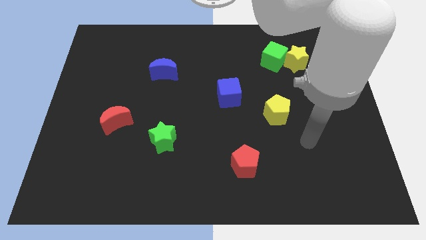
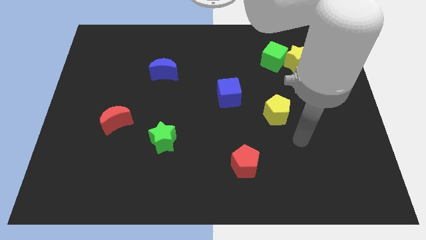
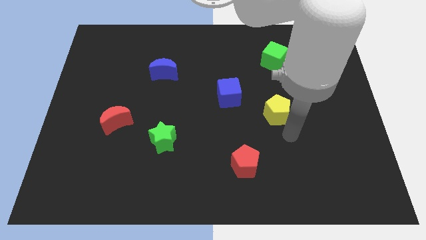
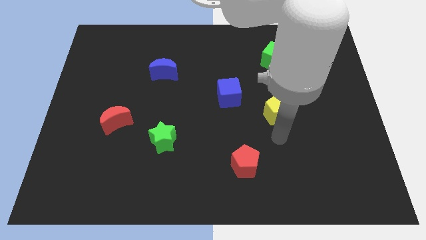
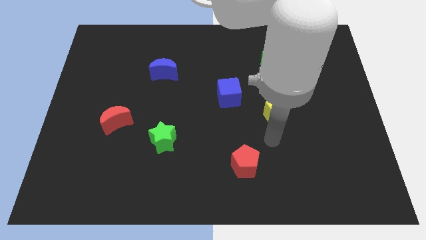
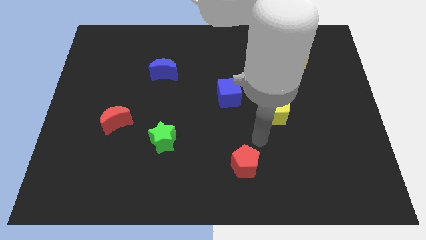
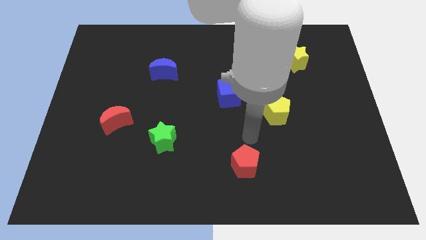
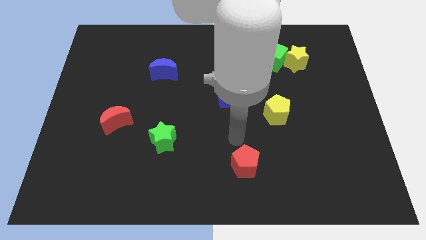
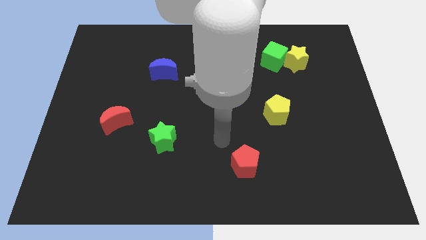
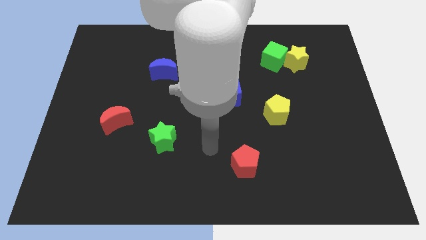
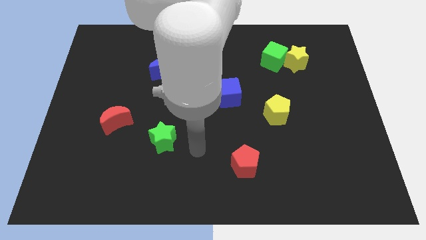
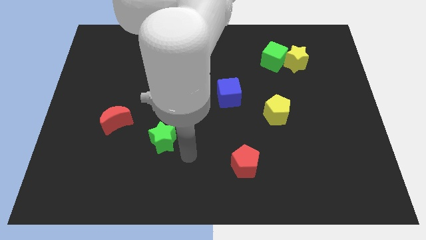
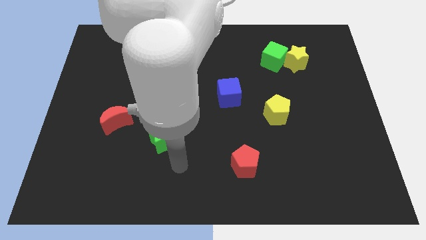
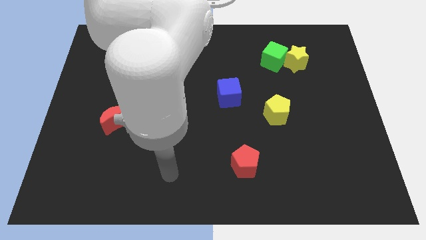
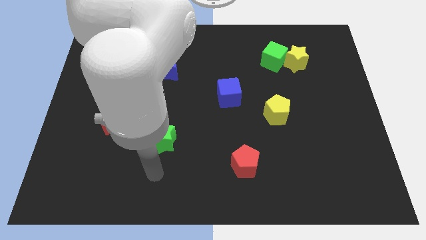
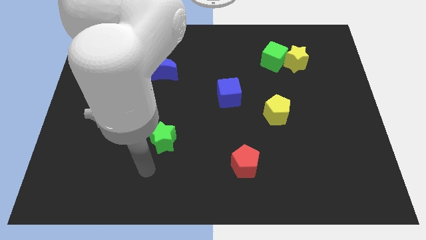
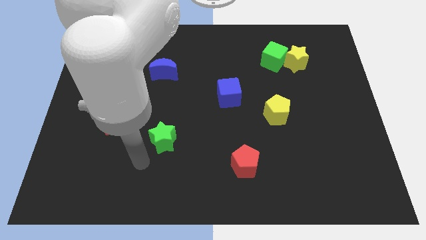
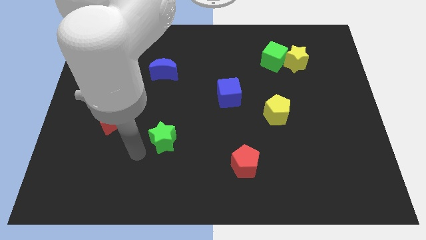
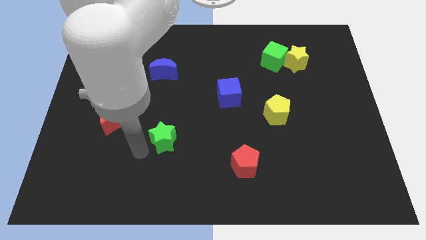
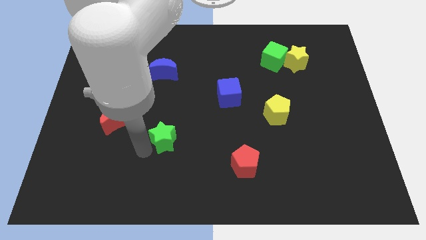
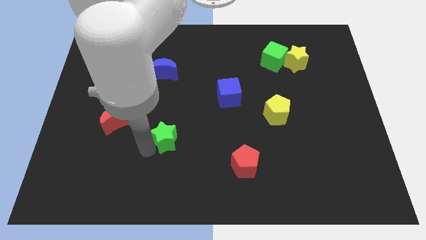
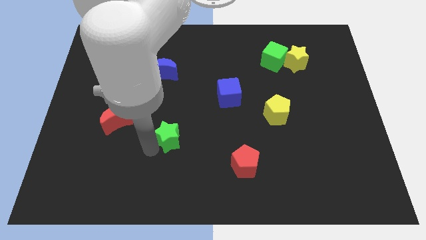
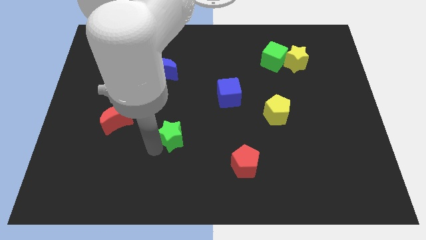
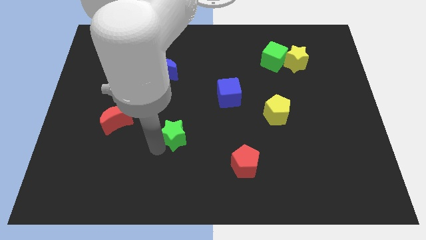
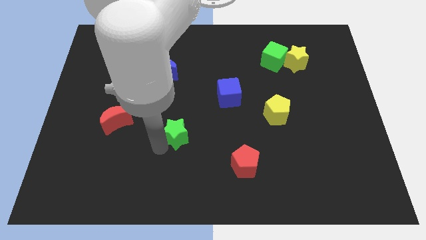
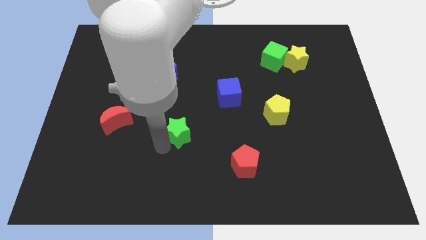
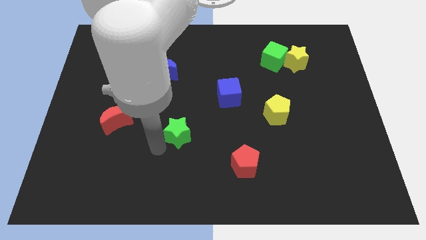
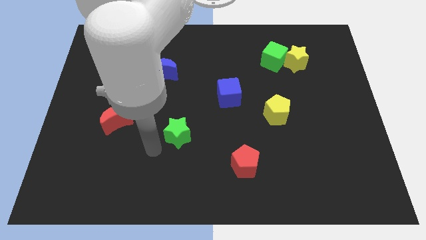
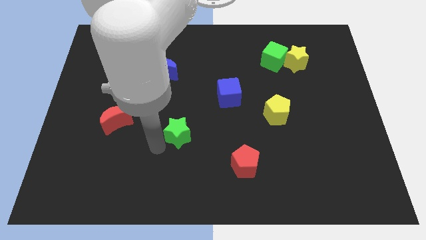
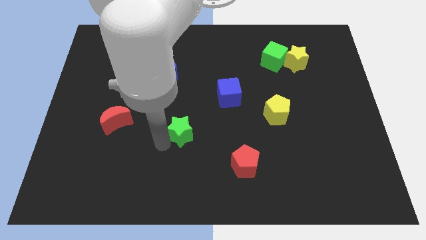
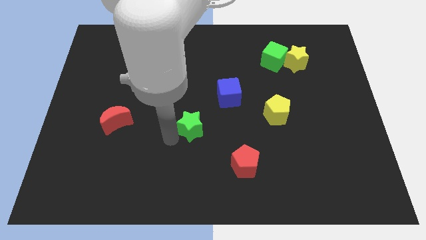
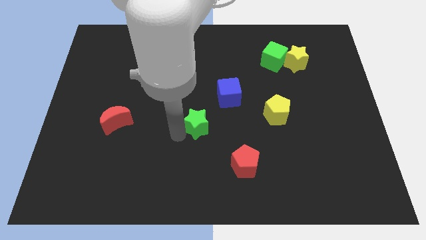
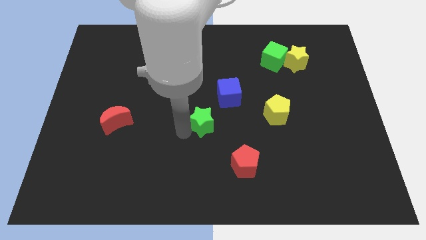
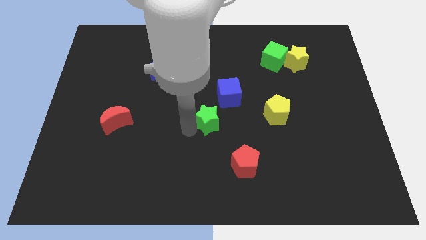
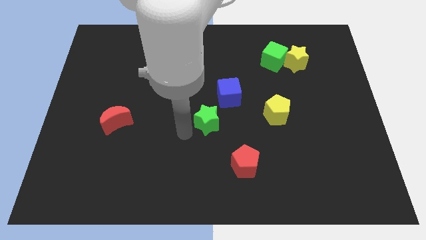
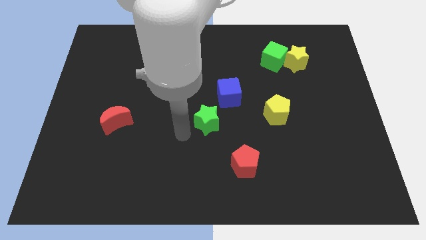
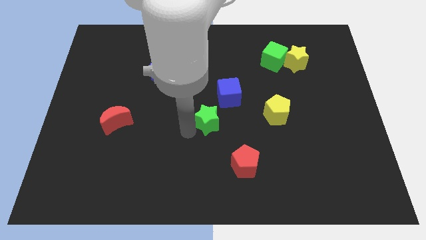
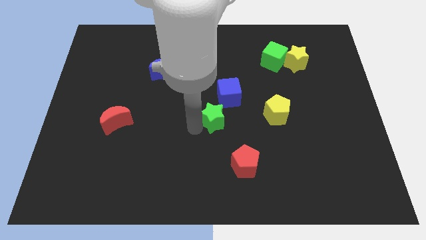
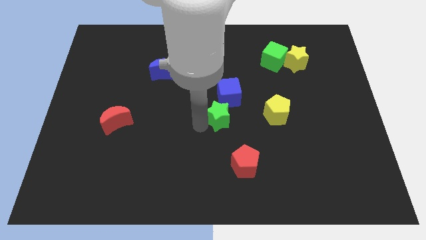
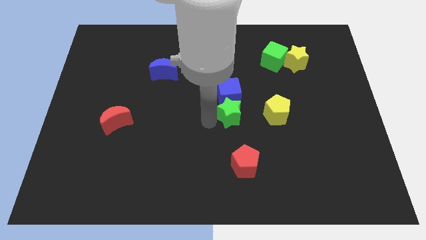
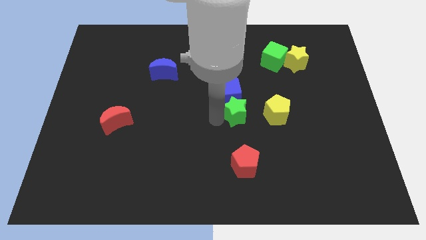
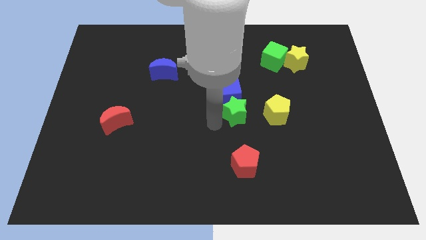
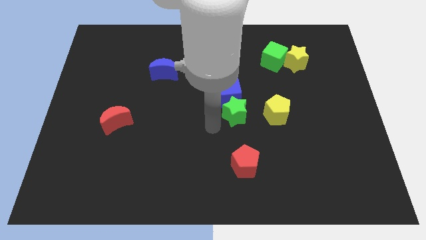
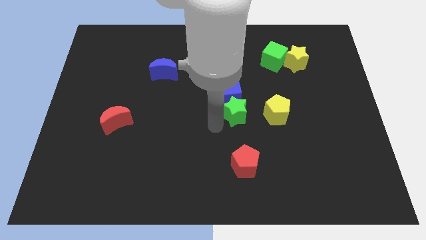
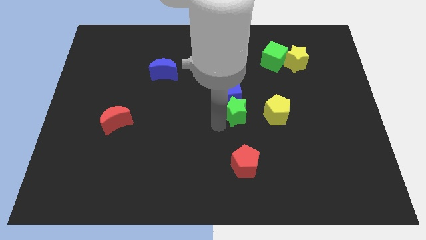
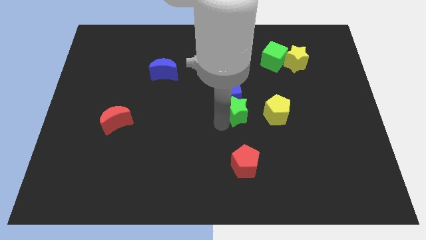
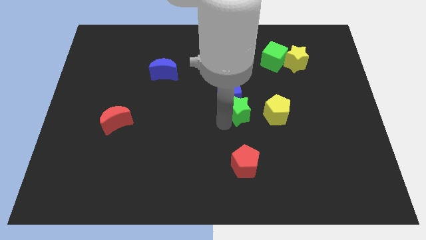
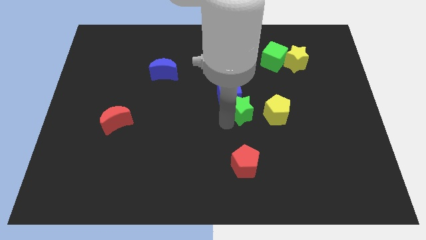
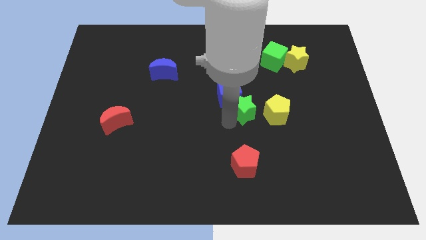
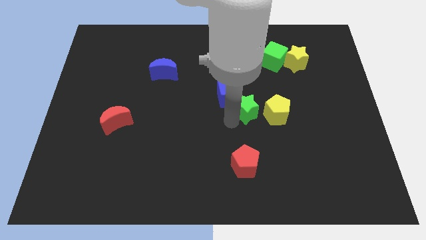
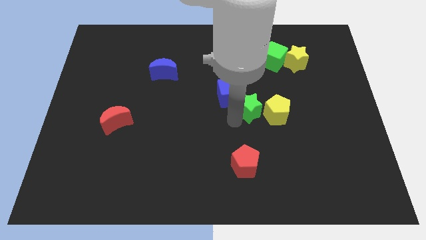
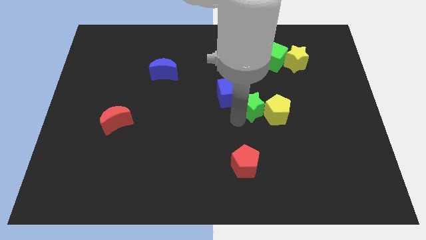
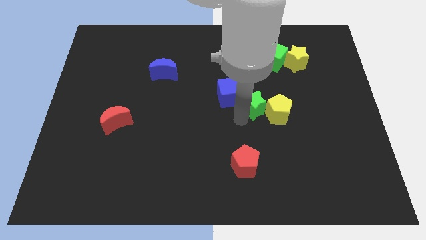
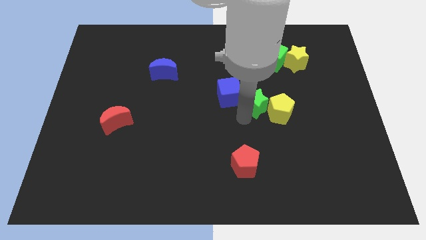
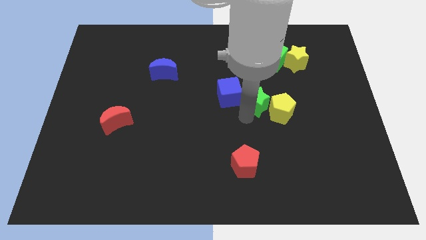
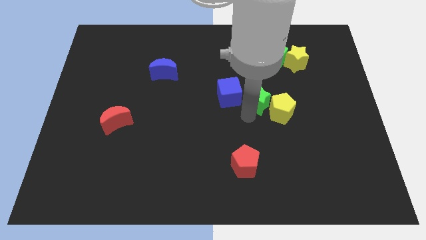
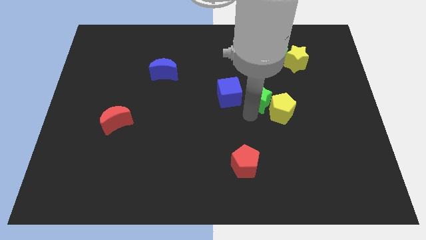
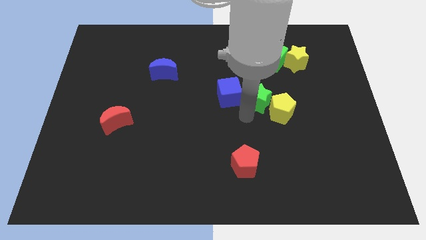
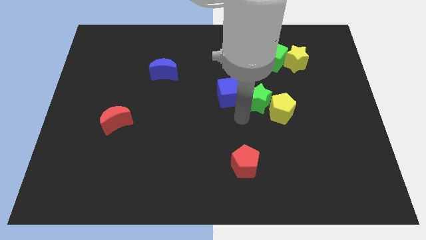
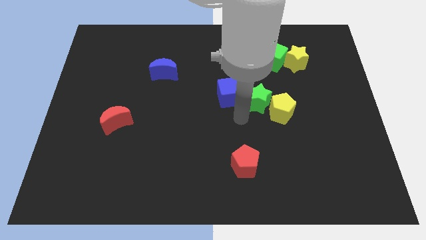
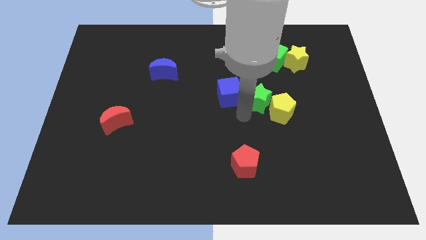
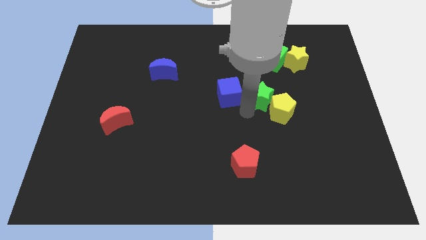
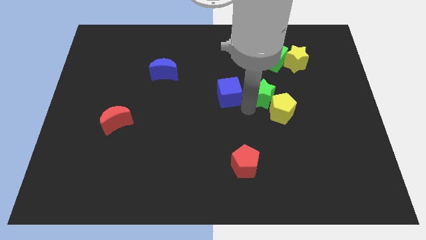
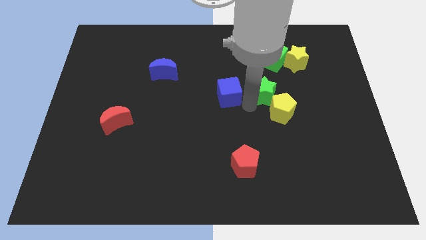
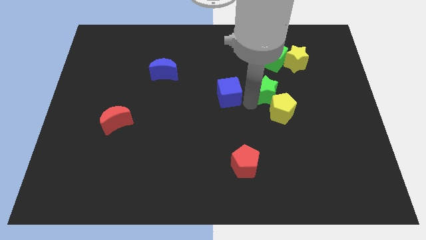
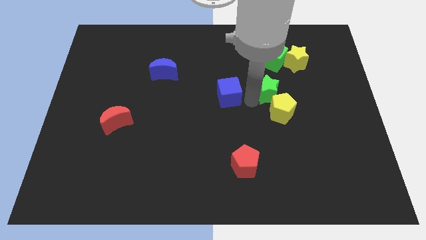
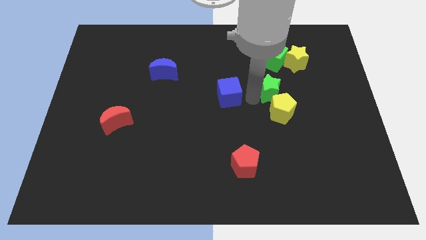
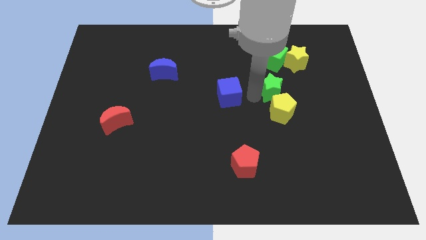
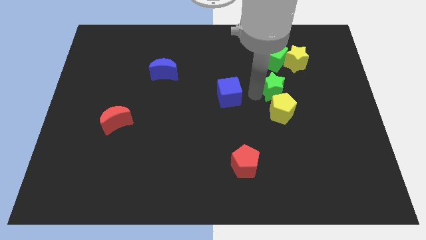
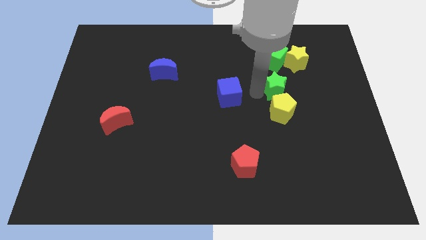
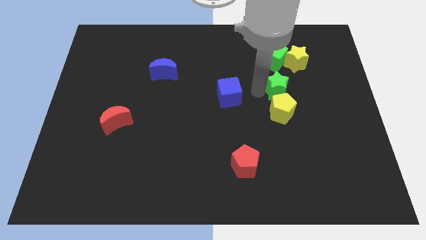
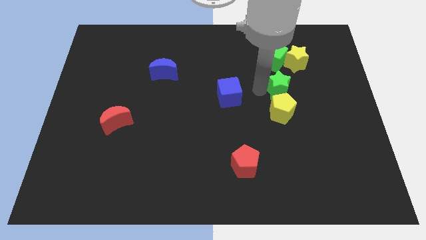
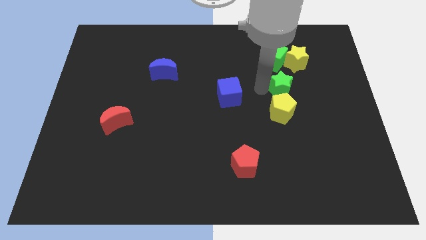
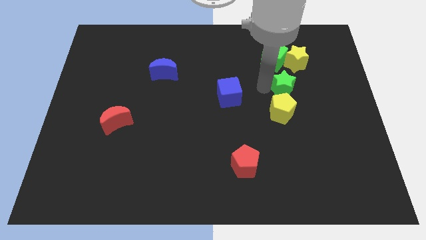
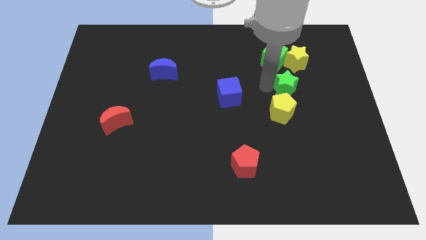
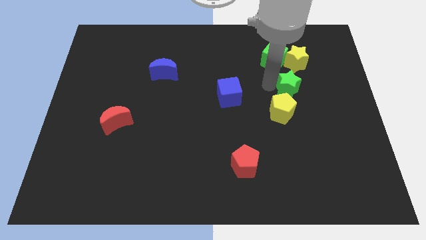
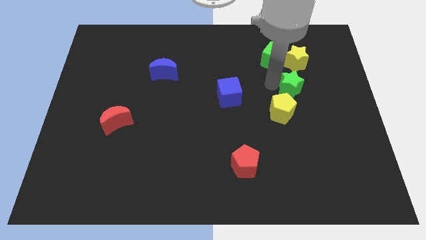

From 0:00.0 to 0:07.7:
put the green star to the bottom right of the green cube
